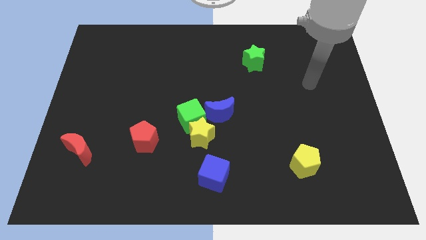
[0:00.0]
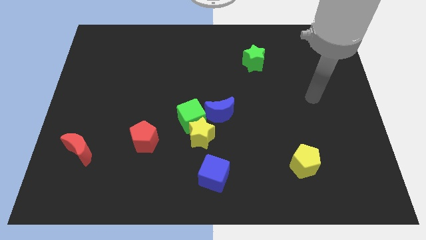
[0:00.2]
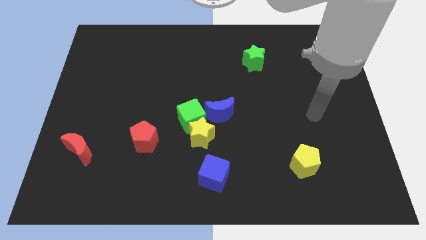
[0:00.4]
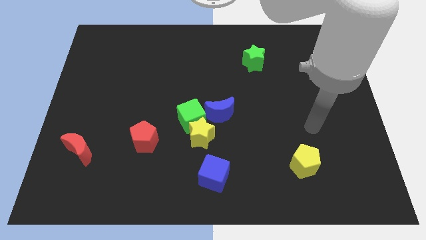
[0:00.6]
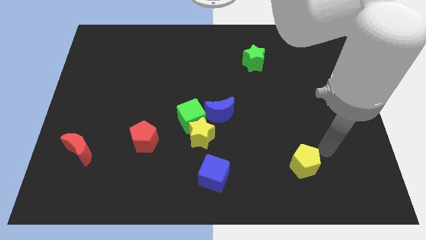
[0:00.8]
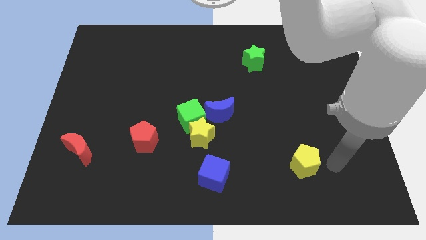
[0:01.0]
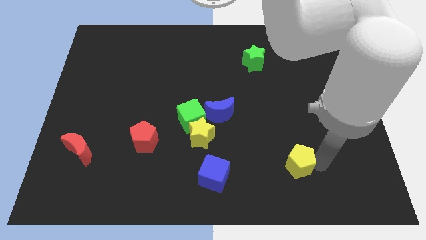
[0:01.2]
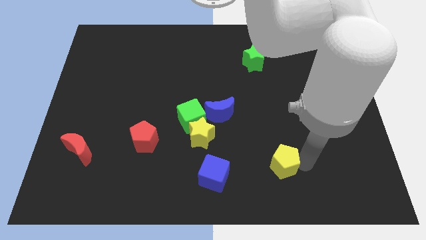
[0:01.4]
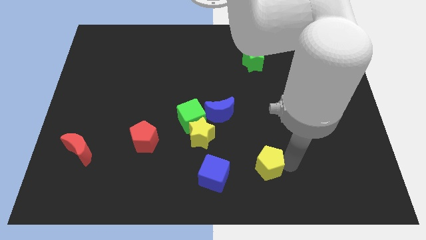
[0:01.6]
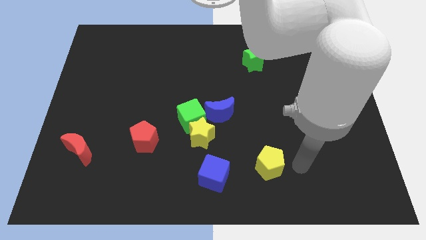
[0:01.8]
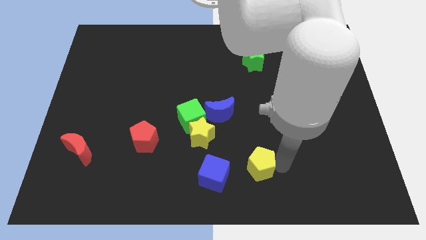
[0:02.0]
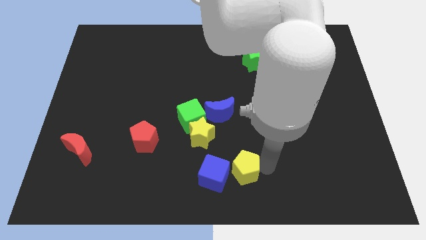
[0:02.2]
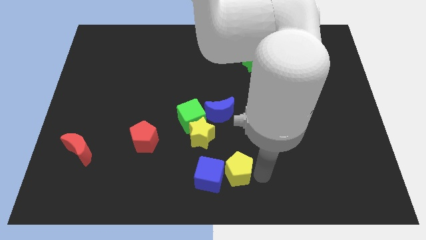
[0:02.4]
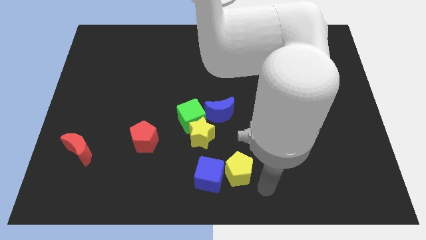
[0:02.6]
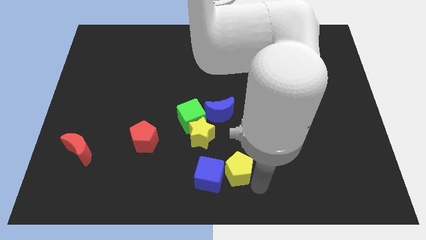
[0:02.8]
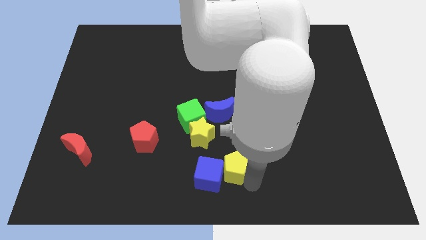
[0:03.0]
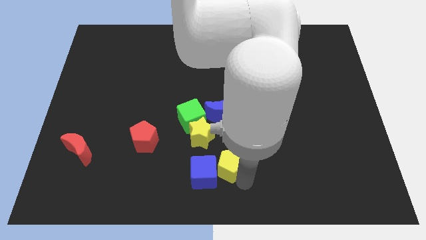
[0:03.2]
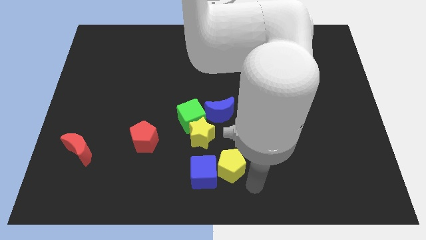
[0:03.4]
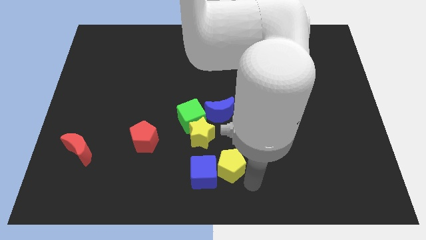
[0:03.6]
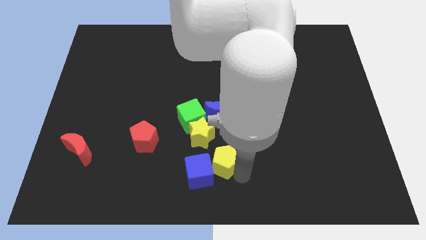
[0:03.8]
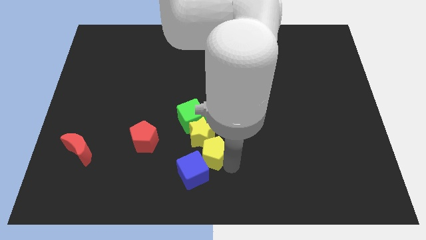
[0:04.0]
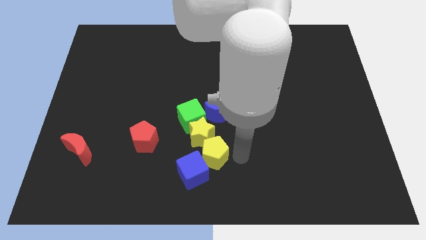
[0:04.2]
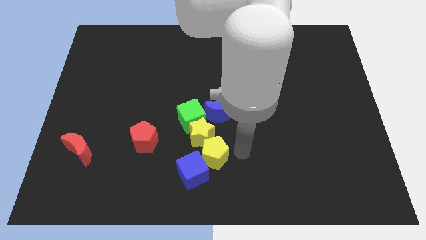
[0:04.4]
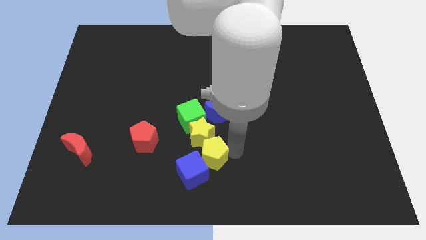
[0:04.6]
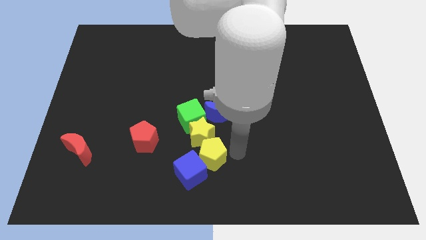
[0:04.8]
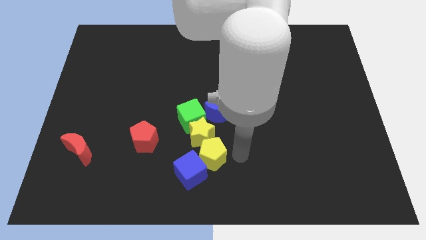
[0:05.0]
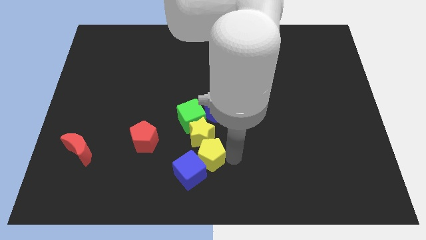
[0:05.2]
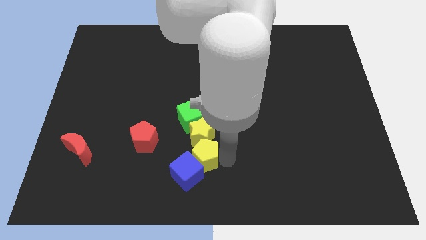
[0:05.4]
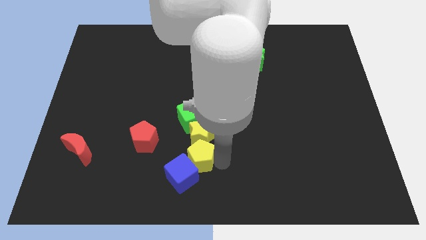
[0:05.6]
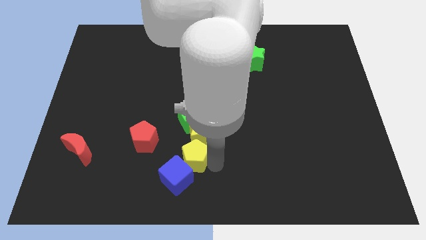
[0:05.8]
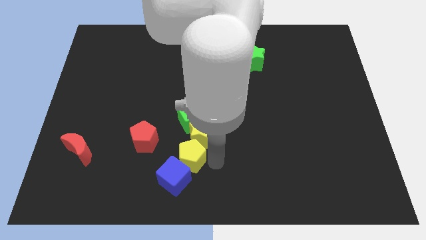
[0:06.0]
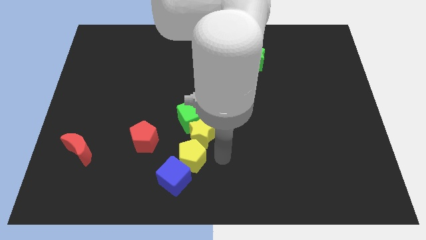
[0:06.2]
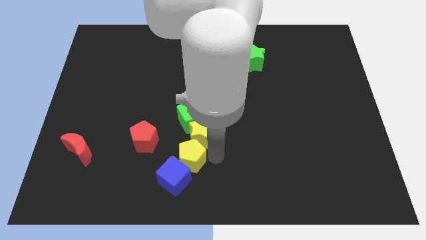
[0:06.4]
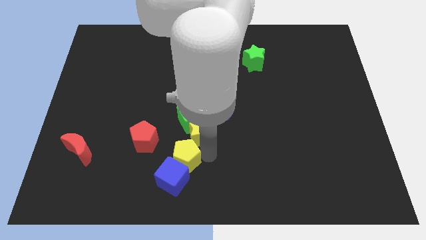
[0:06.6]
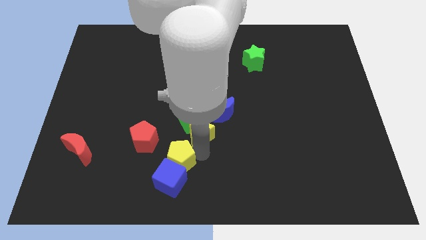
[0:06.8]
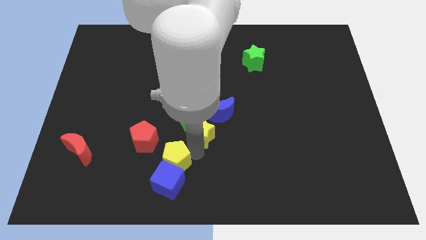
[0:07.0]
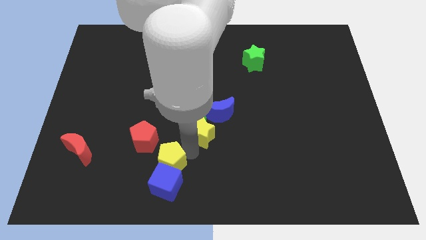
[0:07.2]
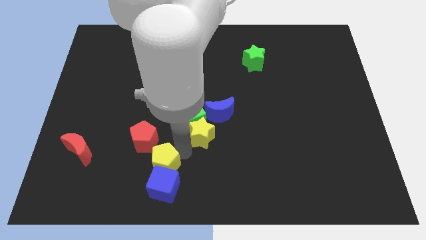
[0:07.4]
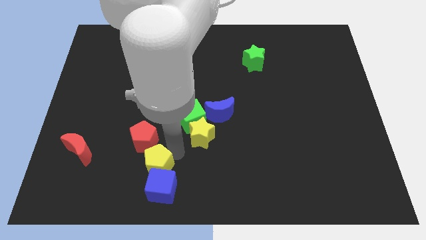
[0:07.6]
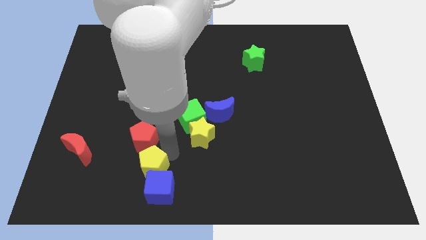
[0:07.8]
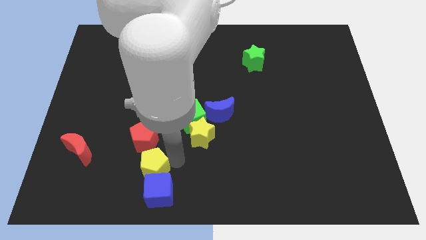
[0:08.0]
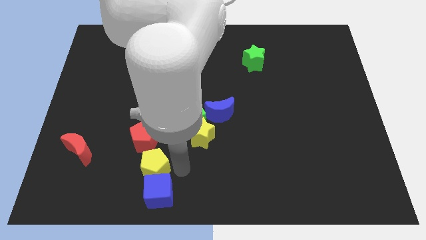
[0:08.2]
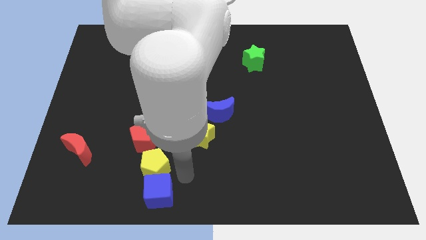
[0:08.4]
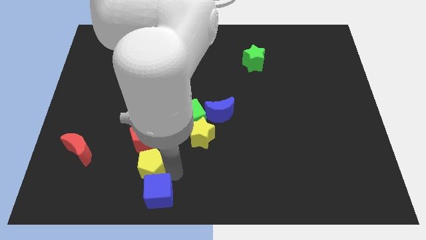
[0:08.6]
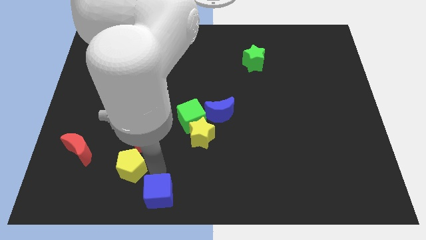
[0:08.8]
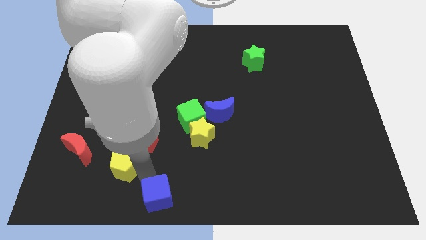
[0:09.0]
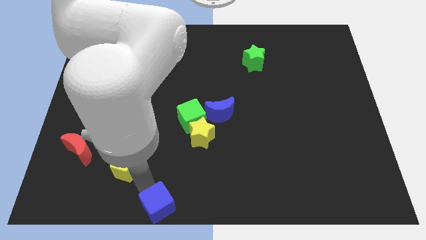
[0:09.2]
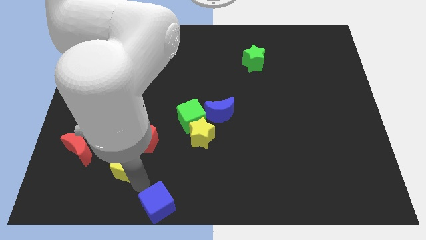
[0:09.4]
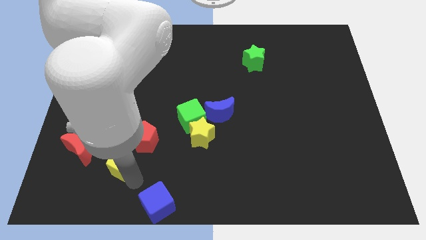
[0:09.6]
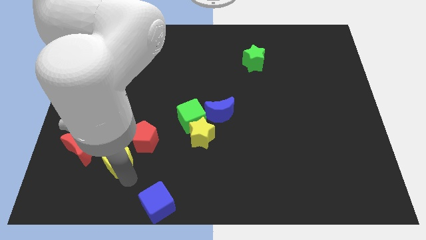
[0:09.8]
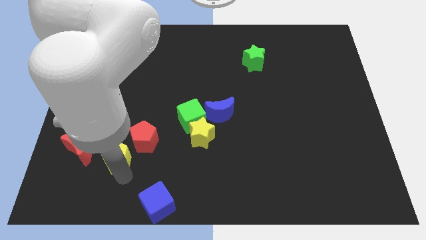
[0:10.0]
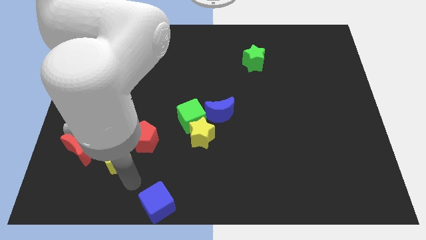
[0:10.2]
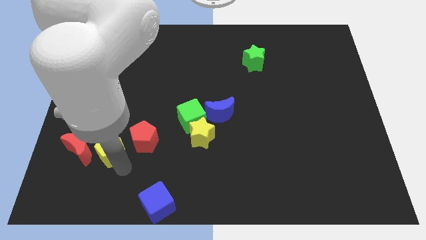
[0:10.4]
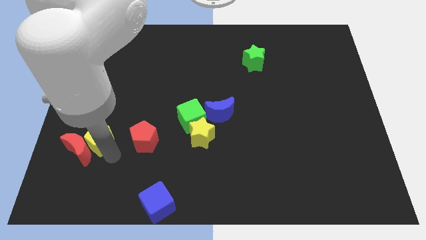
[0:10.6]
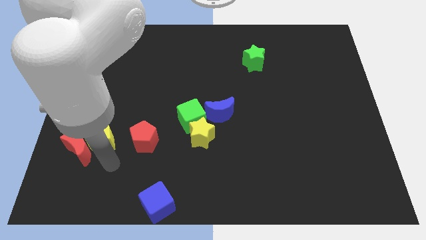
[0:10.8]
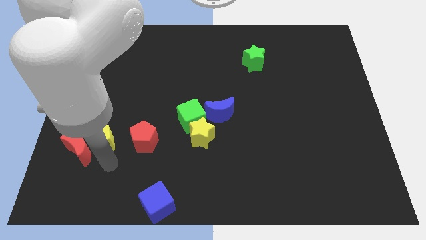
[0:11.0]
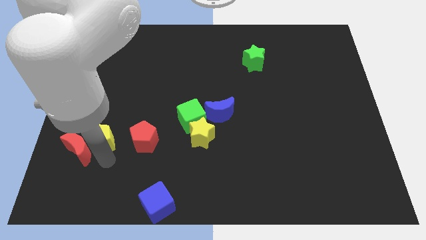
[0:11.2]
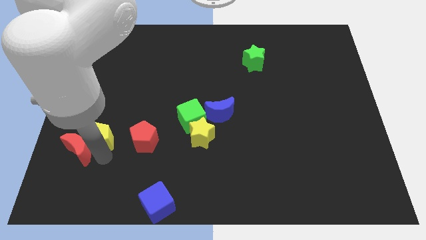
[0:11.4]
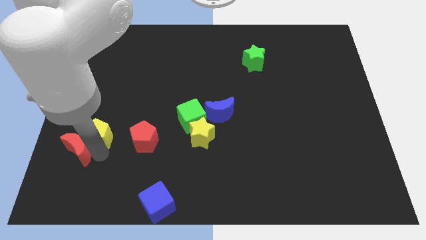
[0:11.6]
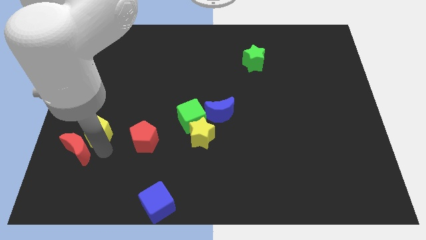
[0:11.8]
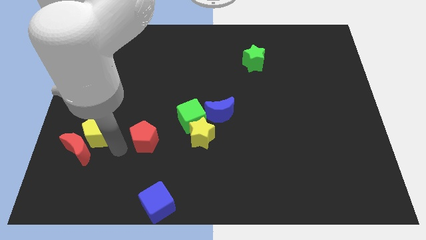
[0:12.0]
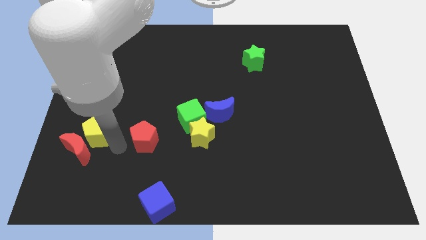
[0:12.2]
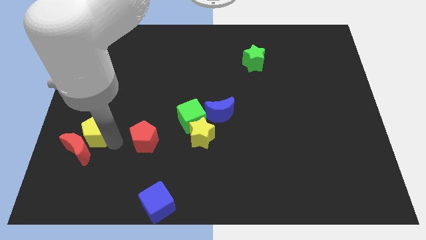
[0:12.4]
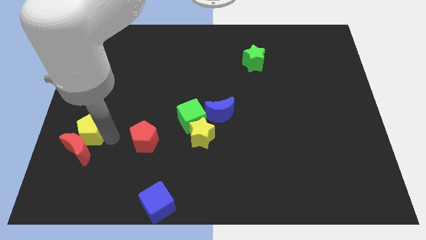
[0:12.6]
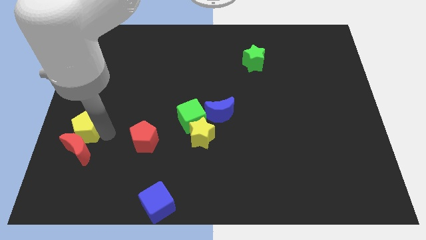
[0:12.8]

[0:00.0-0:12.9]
push the yellow pentagon to the left side

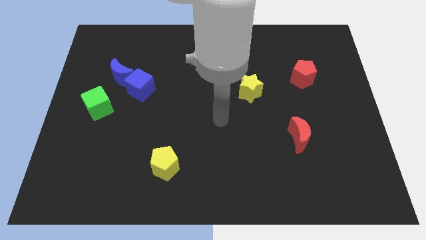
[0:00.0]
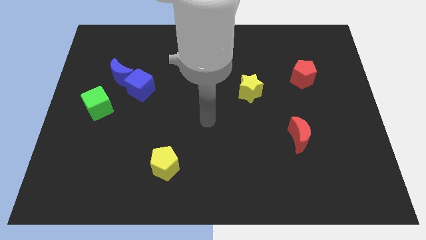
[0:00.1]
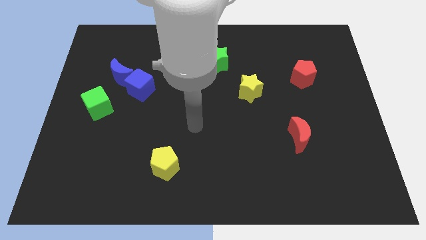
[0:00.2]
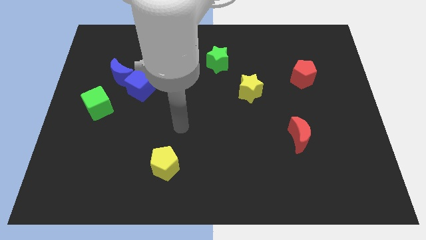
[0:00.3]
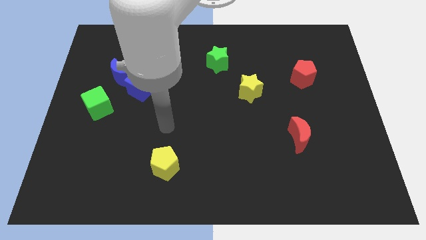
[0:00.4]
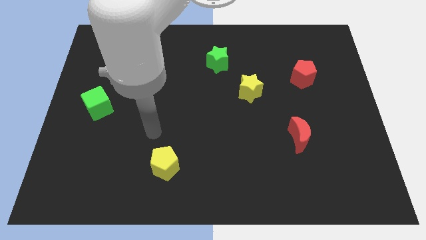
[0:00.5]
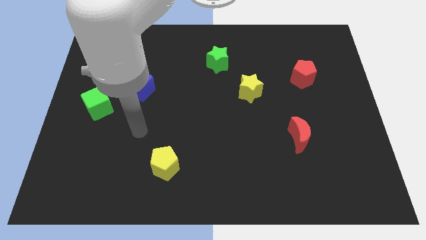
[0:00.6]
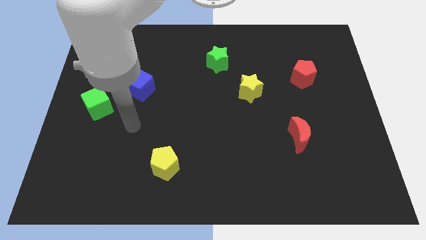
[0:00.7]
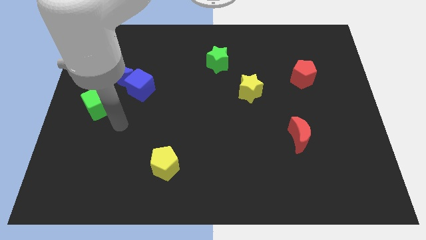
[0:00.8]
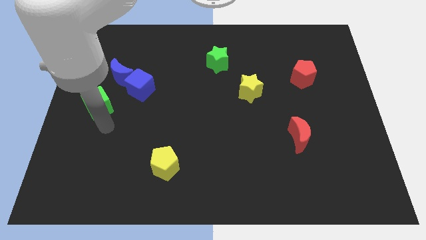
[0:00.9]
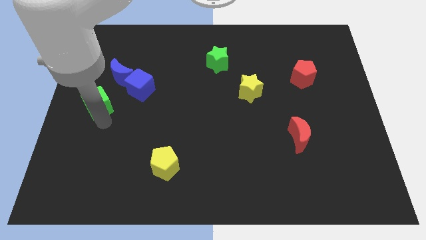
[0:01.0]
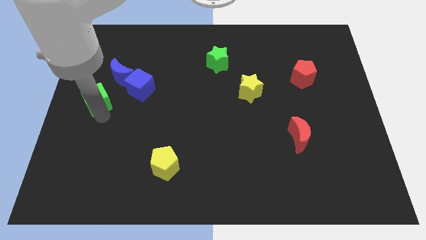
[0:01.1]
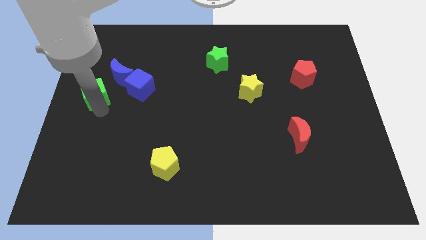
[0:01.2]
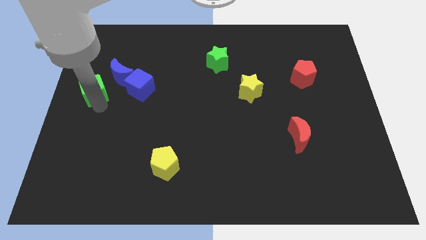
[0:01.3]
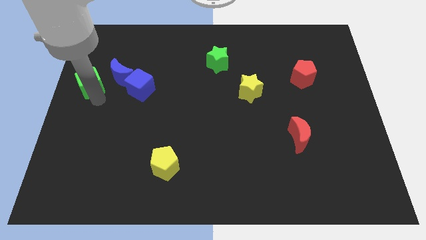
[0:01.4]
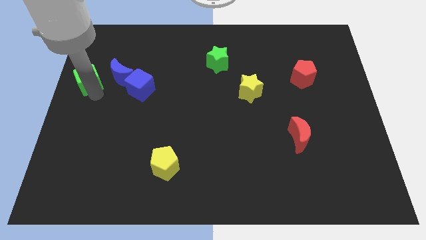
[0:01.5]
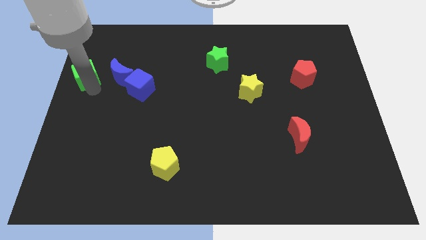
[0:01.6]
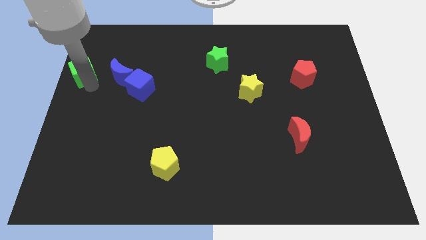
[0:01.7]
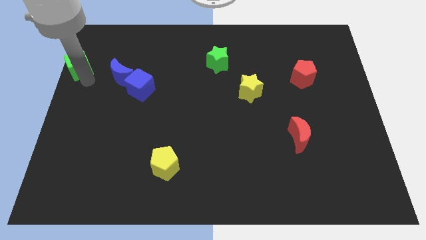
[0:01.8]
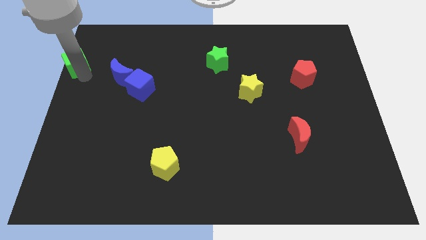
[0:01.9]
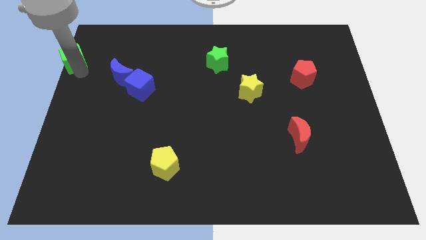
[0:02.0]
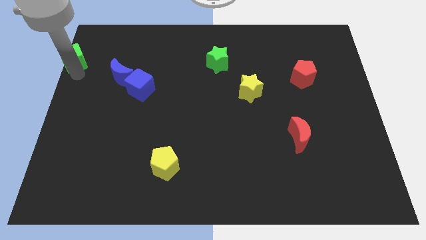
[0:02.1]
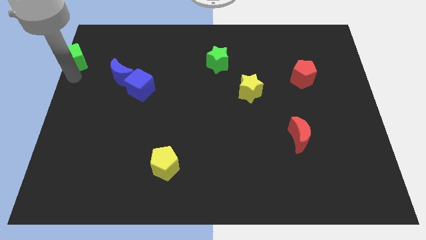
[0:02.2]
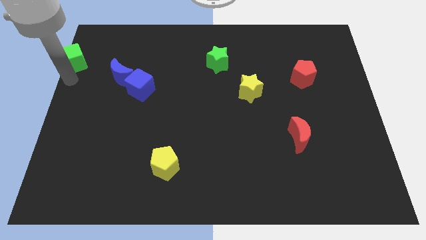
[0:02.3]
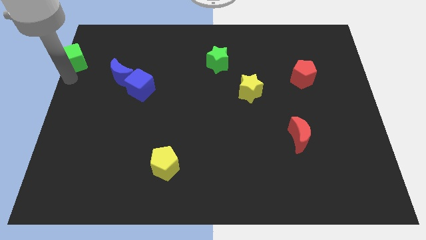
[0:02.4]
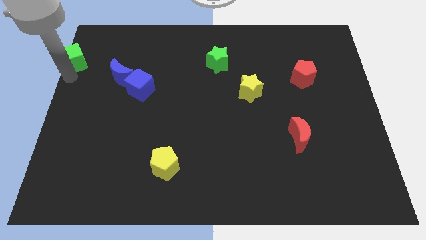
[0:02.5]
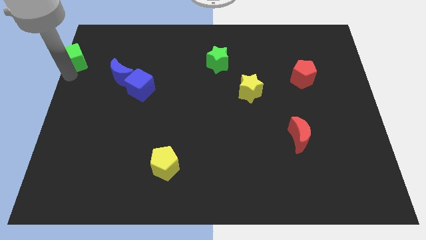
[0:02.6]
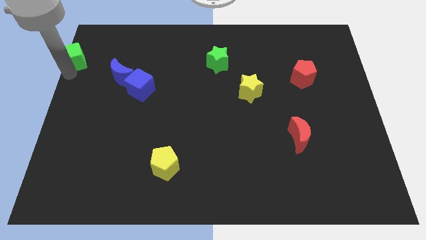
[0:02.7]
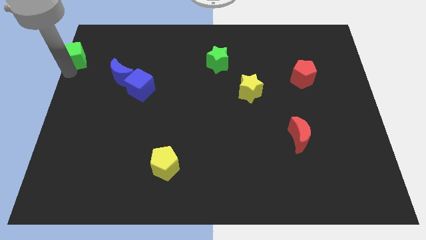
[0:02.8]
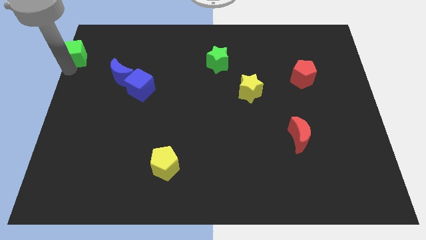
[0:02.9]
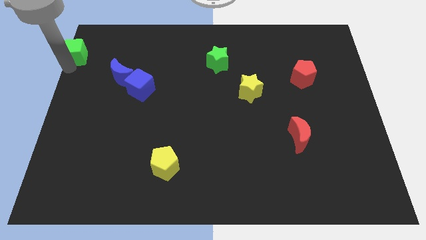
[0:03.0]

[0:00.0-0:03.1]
move the green cube to the upper left corner
